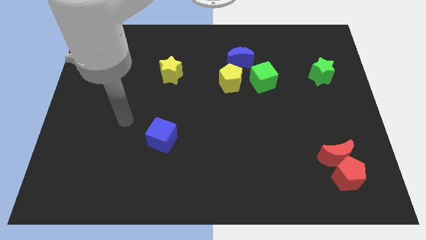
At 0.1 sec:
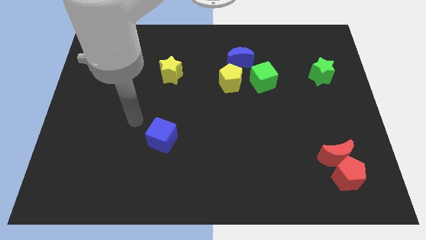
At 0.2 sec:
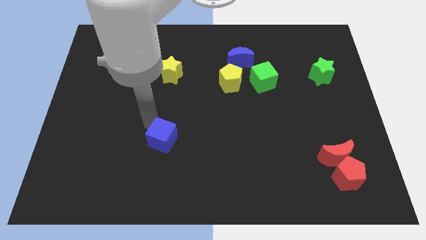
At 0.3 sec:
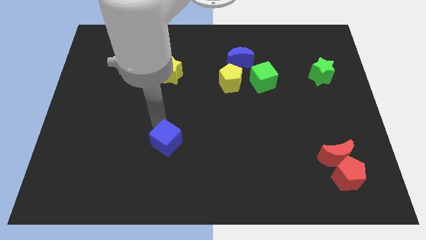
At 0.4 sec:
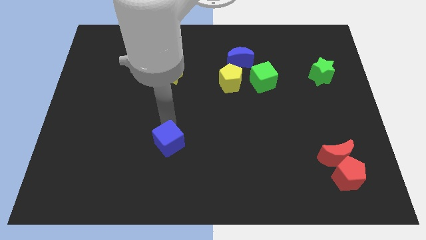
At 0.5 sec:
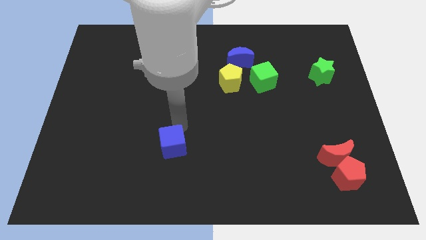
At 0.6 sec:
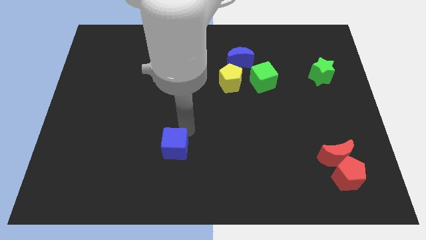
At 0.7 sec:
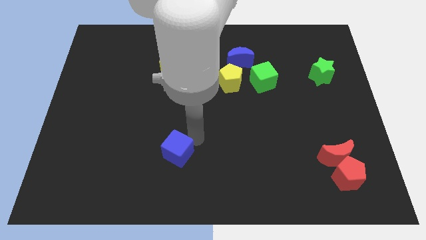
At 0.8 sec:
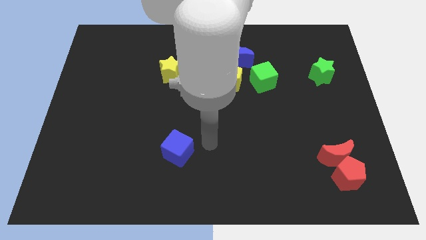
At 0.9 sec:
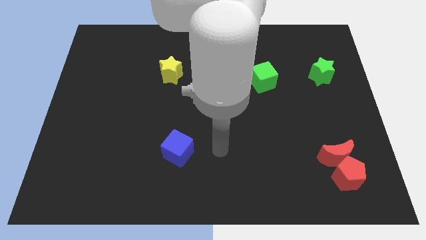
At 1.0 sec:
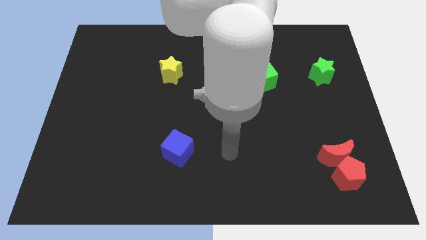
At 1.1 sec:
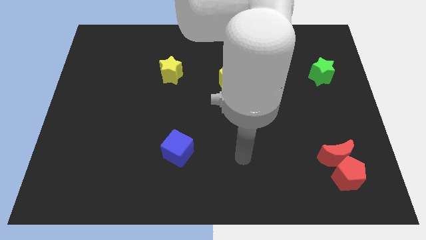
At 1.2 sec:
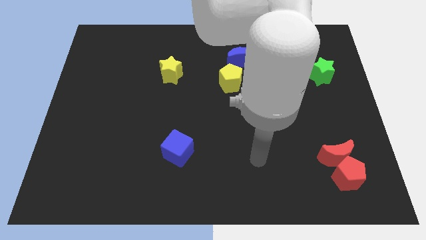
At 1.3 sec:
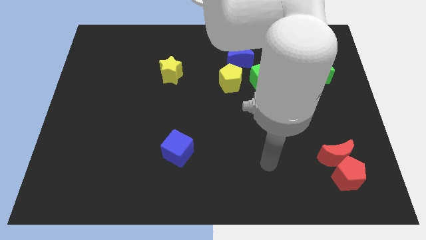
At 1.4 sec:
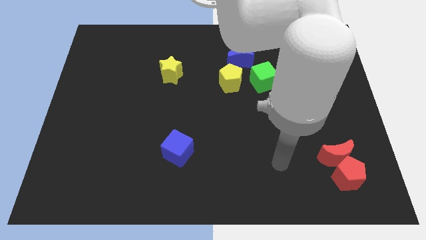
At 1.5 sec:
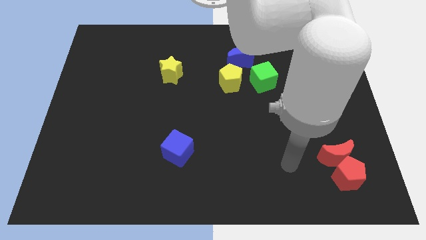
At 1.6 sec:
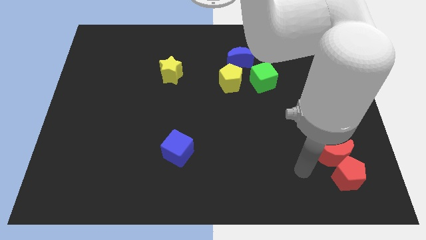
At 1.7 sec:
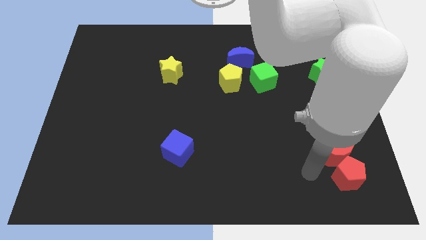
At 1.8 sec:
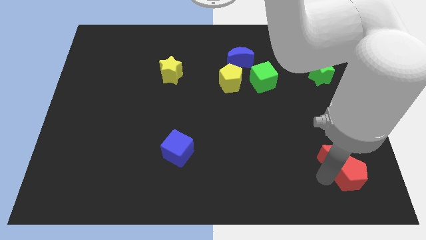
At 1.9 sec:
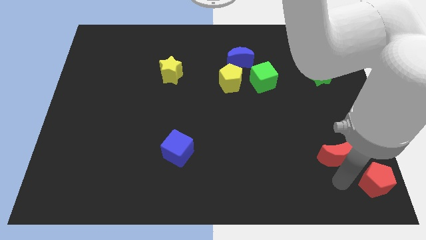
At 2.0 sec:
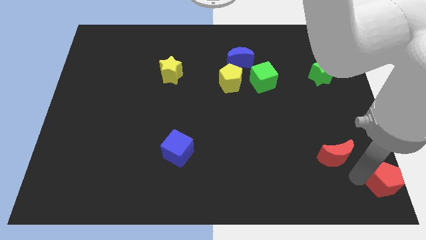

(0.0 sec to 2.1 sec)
pull the red moon apart from the red pentagon

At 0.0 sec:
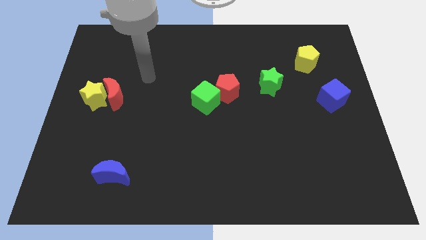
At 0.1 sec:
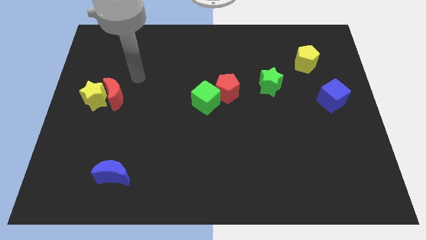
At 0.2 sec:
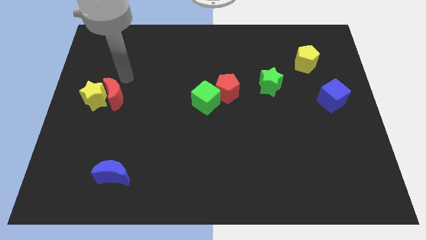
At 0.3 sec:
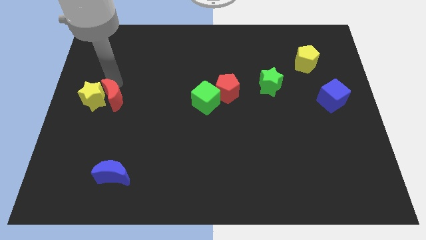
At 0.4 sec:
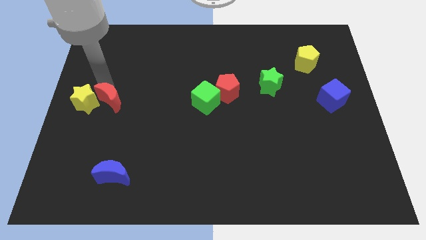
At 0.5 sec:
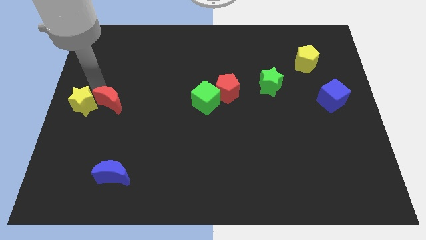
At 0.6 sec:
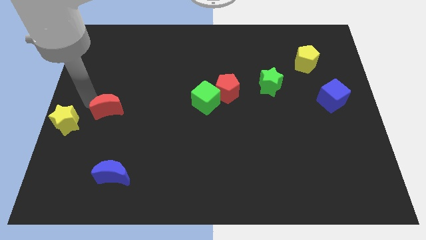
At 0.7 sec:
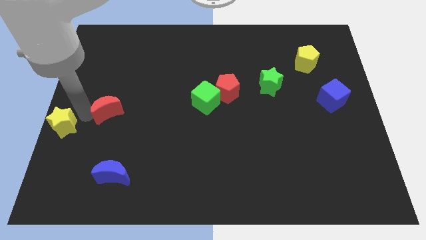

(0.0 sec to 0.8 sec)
pull the red moon apart from the yellow star

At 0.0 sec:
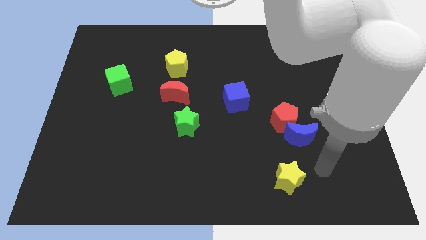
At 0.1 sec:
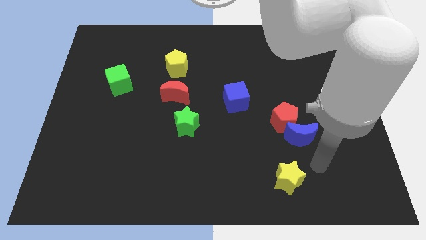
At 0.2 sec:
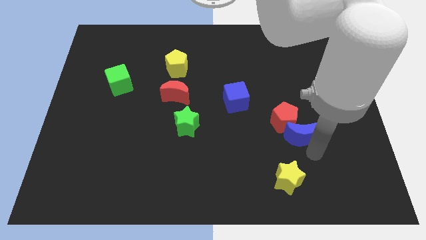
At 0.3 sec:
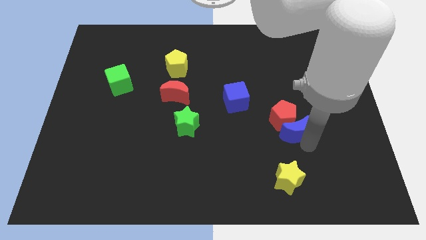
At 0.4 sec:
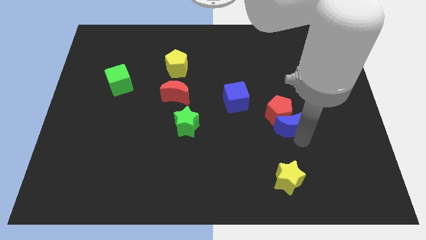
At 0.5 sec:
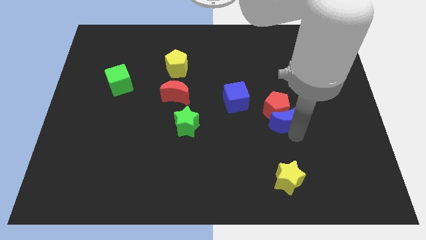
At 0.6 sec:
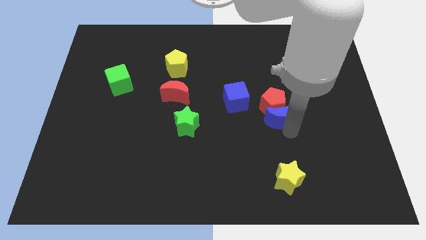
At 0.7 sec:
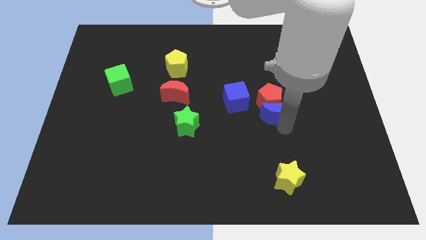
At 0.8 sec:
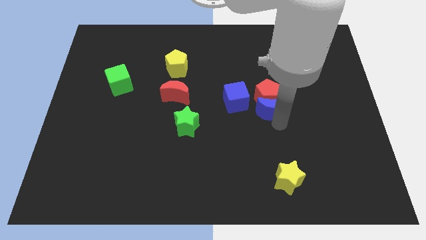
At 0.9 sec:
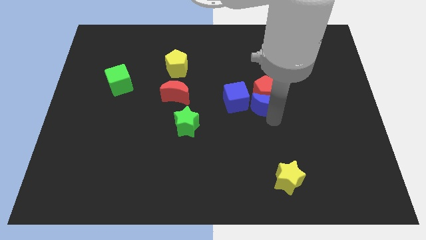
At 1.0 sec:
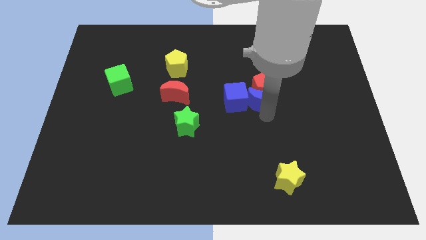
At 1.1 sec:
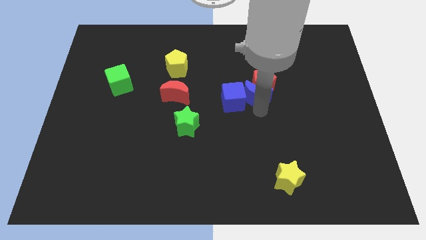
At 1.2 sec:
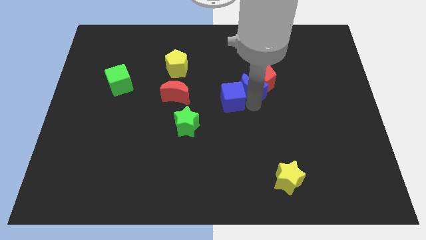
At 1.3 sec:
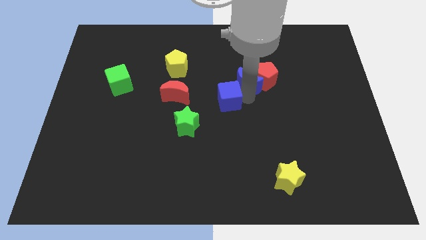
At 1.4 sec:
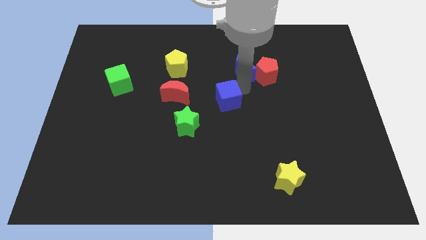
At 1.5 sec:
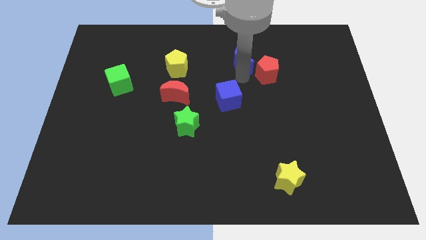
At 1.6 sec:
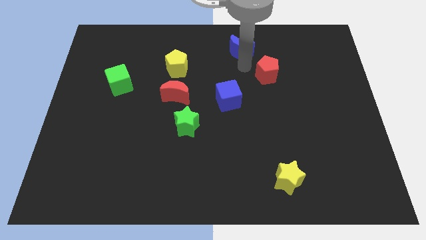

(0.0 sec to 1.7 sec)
separate the red pentagon from the blue moon

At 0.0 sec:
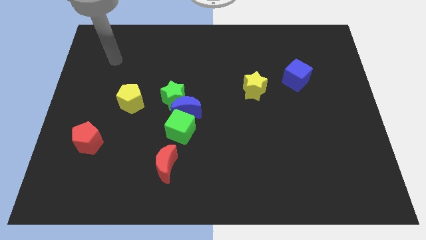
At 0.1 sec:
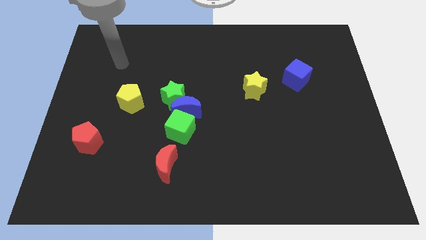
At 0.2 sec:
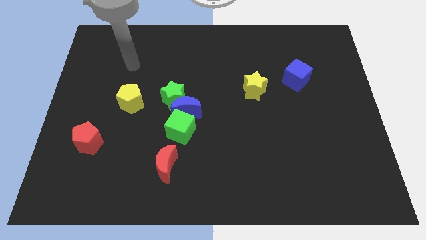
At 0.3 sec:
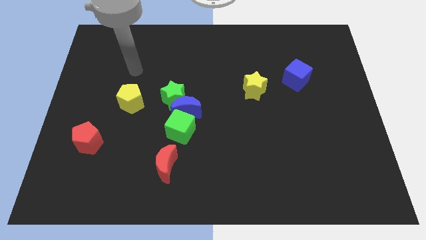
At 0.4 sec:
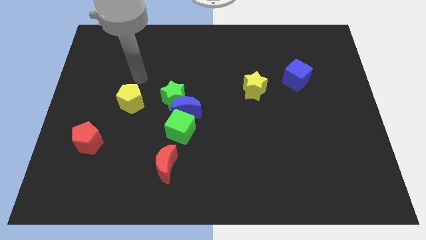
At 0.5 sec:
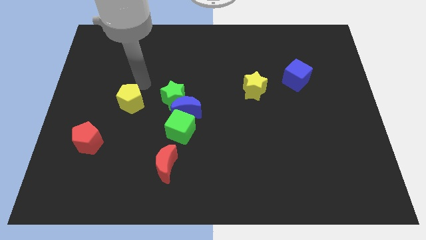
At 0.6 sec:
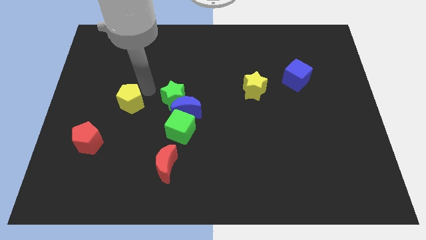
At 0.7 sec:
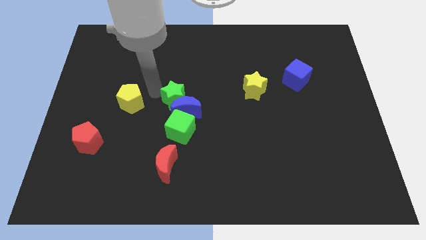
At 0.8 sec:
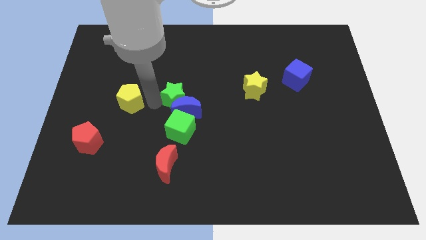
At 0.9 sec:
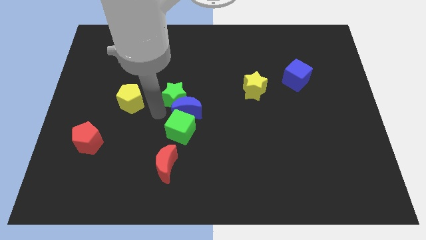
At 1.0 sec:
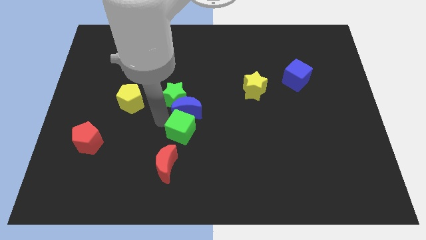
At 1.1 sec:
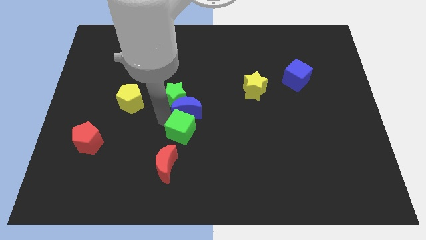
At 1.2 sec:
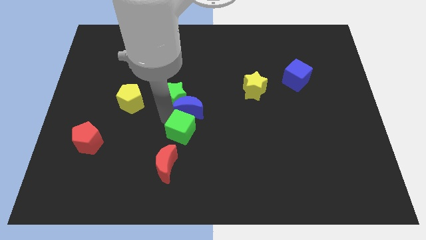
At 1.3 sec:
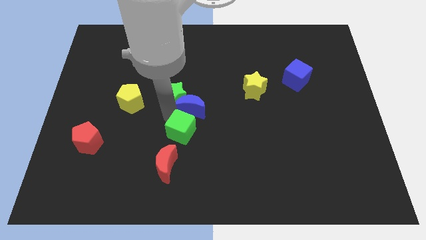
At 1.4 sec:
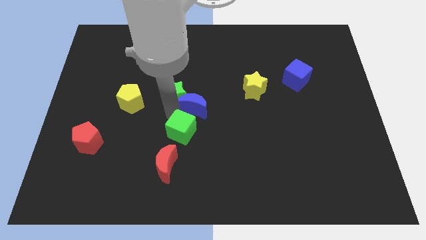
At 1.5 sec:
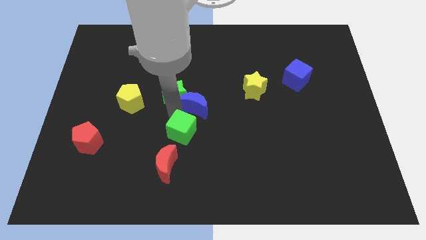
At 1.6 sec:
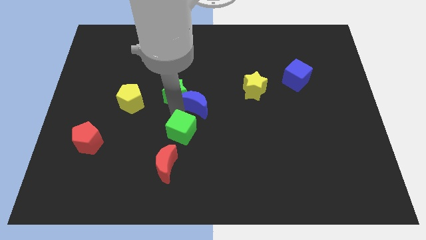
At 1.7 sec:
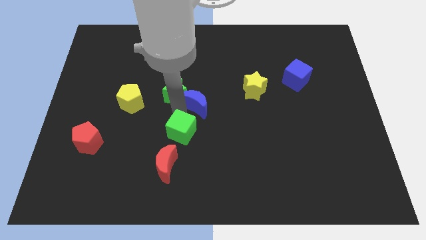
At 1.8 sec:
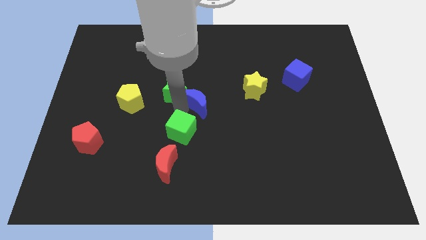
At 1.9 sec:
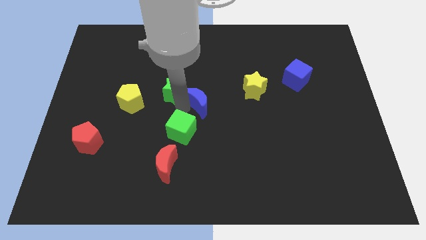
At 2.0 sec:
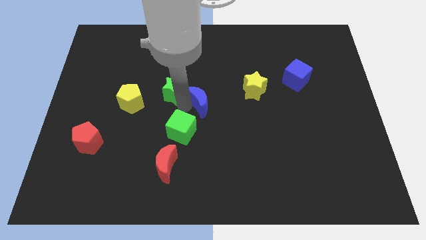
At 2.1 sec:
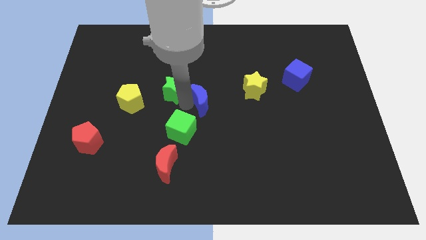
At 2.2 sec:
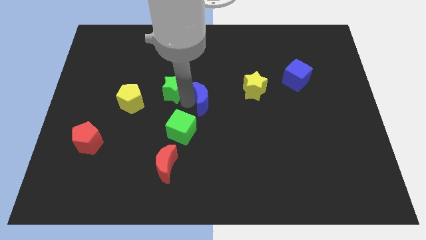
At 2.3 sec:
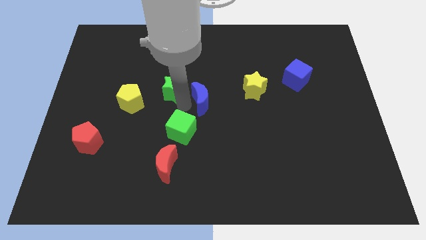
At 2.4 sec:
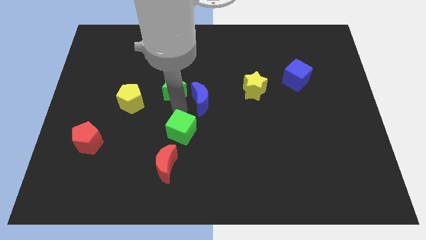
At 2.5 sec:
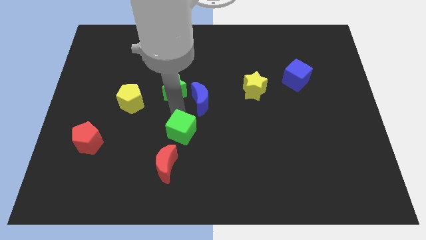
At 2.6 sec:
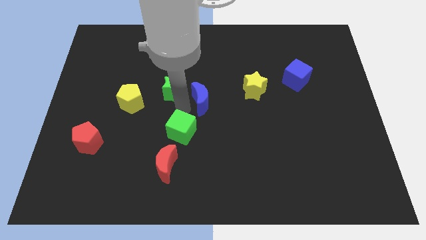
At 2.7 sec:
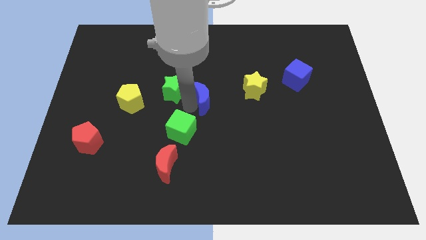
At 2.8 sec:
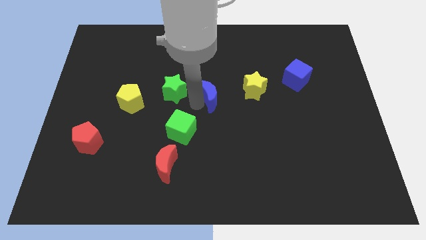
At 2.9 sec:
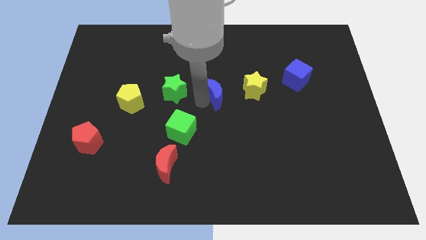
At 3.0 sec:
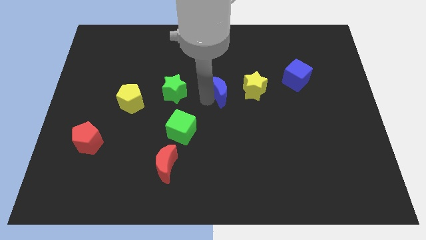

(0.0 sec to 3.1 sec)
move the blue moon away from the green star and green cube

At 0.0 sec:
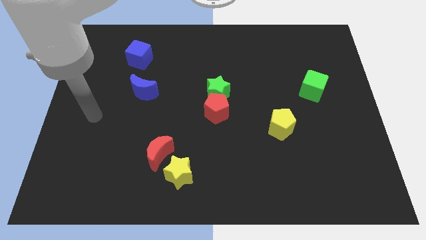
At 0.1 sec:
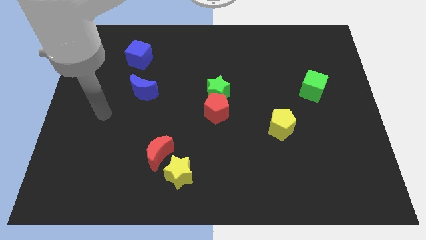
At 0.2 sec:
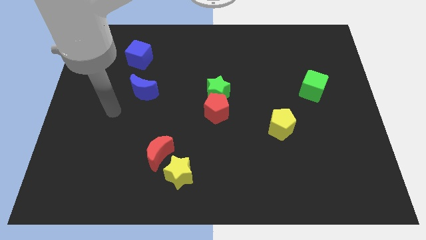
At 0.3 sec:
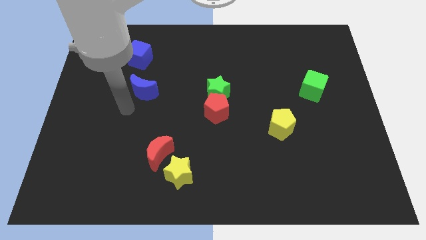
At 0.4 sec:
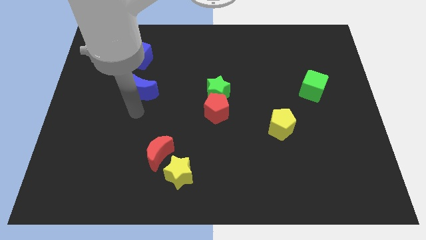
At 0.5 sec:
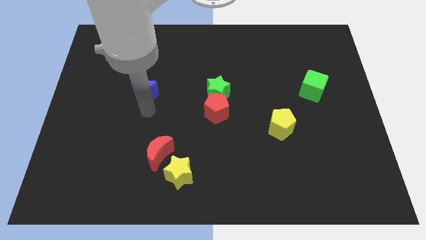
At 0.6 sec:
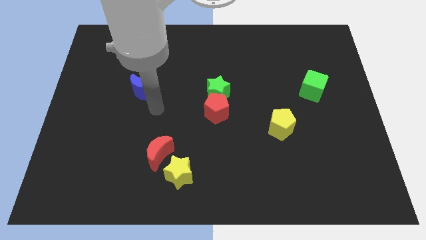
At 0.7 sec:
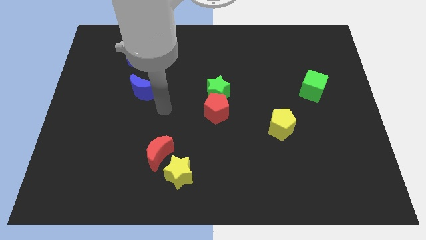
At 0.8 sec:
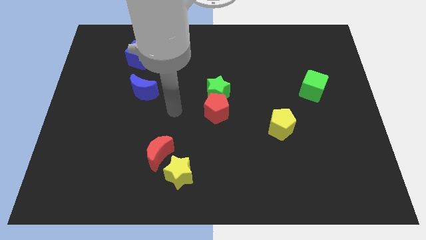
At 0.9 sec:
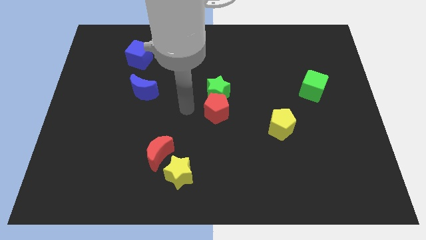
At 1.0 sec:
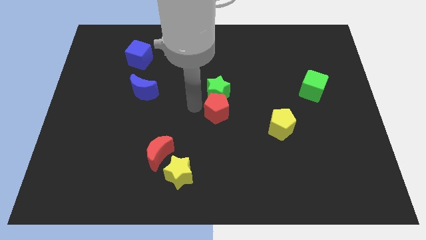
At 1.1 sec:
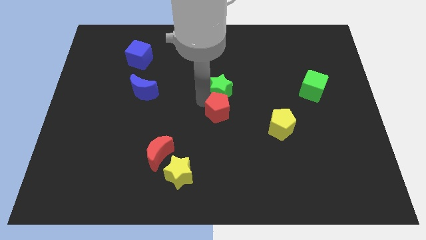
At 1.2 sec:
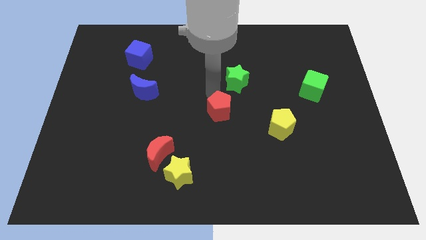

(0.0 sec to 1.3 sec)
separate the red pentagon from the green star

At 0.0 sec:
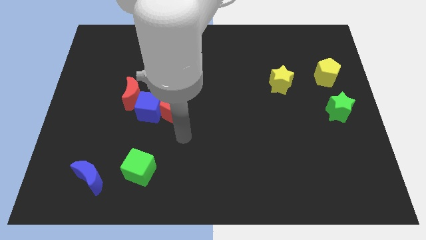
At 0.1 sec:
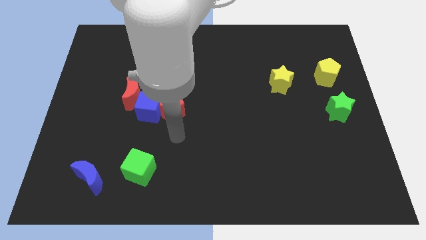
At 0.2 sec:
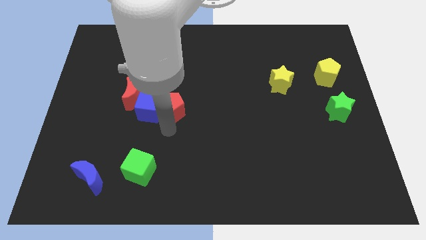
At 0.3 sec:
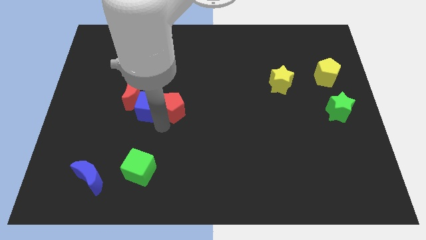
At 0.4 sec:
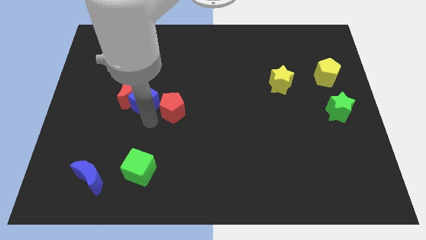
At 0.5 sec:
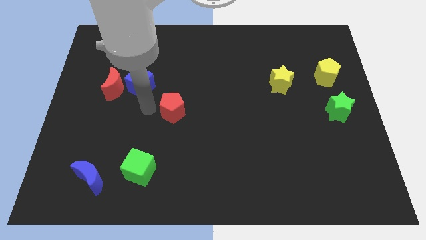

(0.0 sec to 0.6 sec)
move the red pentagon away from the blue cube
